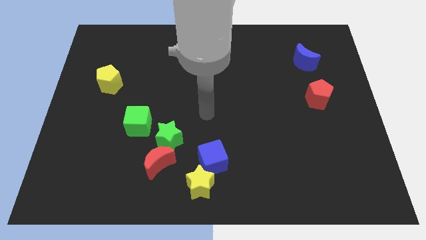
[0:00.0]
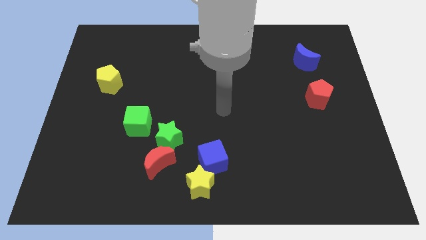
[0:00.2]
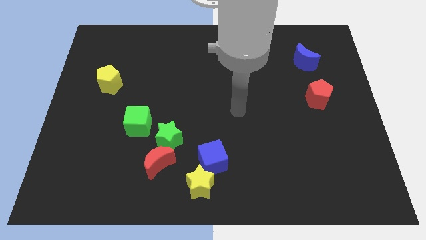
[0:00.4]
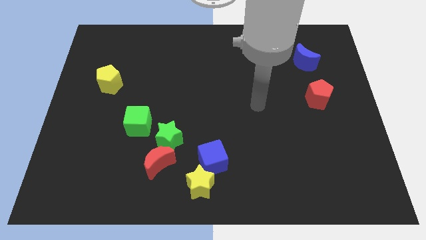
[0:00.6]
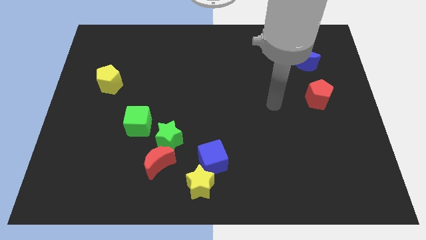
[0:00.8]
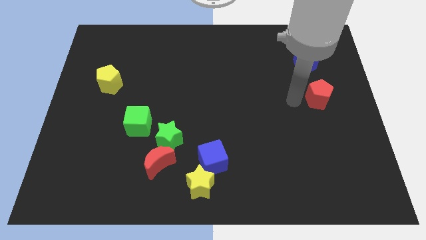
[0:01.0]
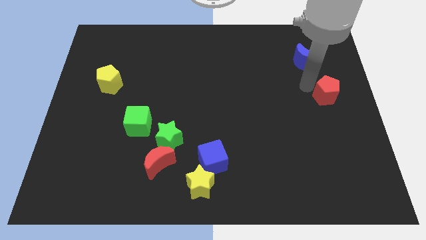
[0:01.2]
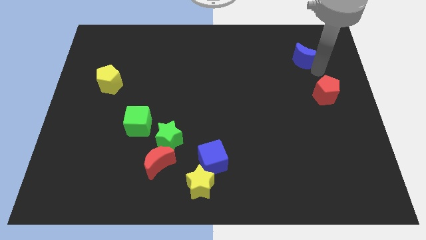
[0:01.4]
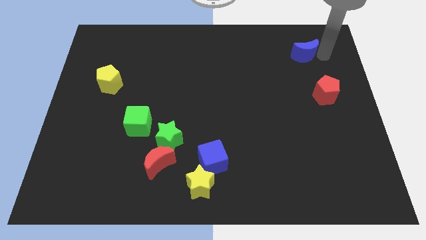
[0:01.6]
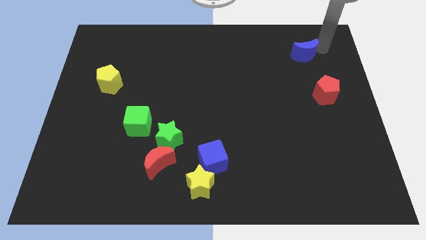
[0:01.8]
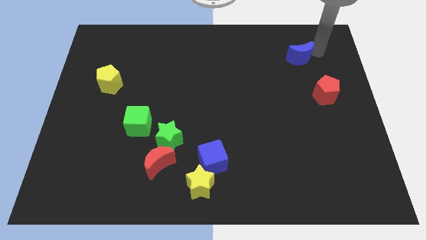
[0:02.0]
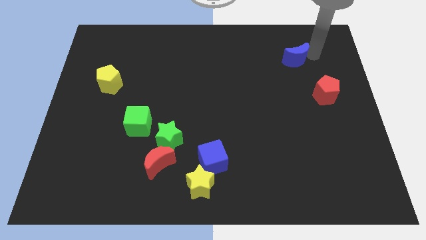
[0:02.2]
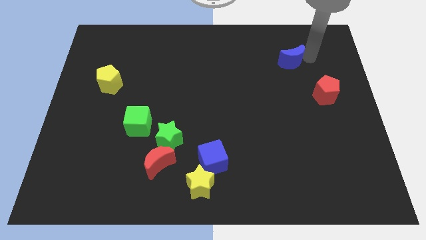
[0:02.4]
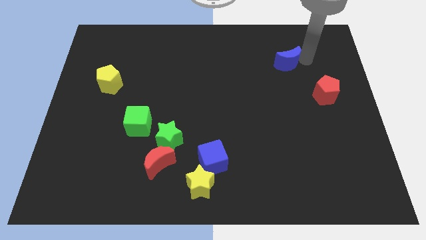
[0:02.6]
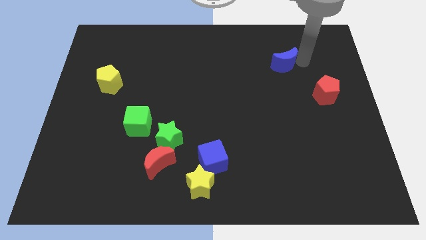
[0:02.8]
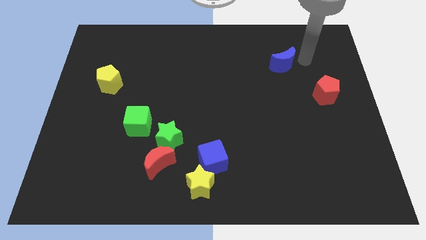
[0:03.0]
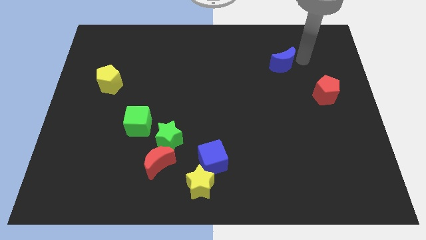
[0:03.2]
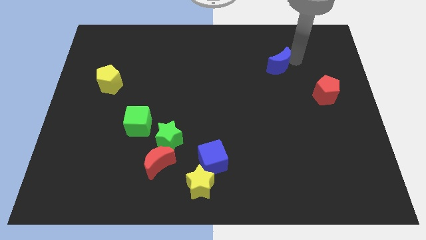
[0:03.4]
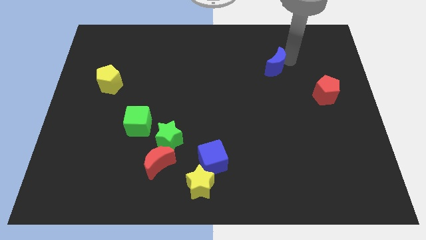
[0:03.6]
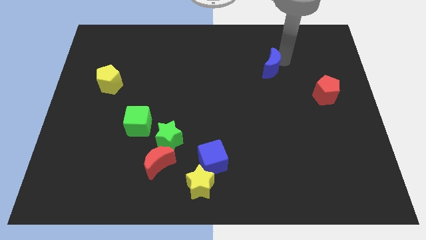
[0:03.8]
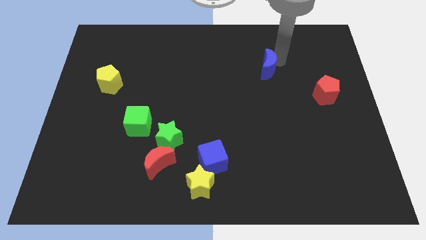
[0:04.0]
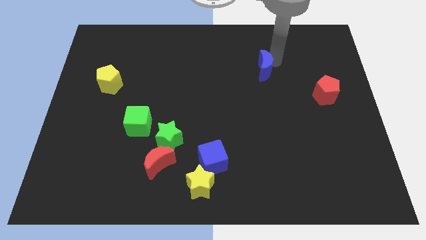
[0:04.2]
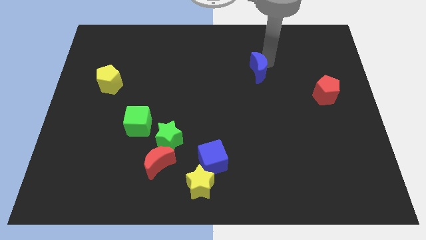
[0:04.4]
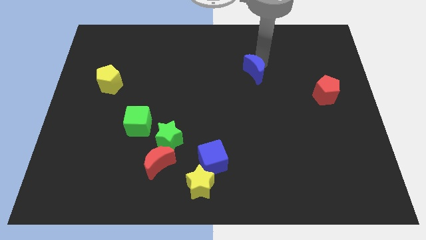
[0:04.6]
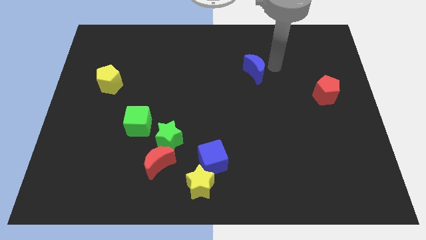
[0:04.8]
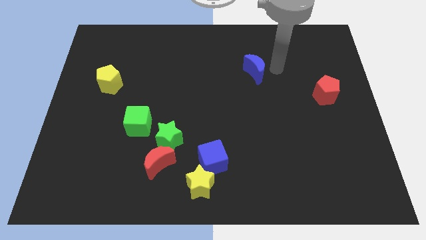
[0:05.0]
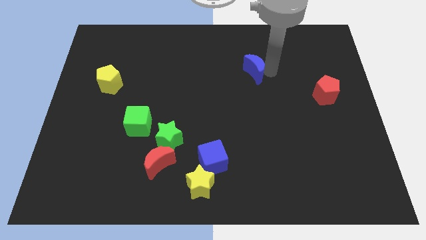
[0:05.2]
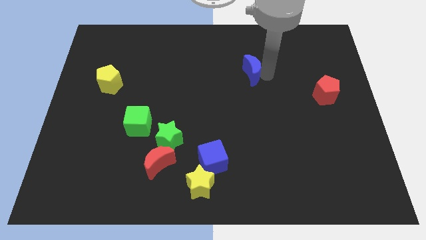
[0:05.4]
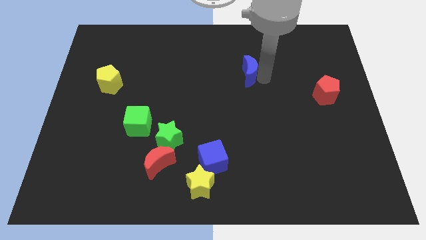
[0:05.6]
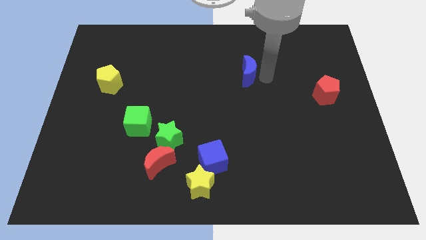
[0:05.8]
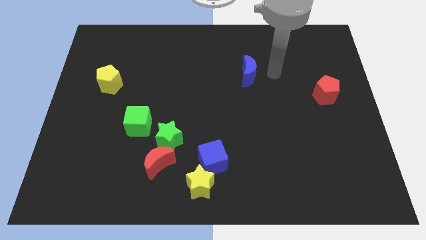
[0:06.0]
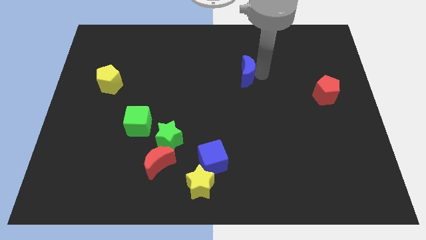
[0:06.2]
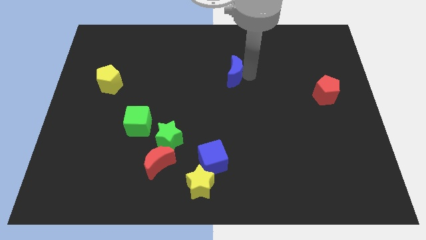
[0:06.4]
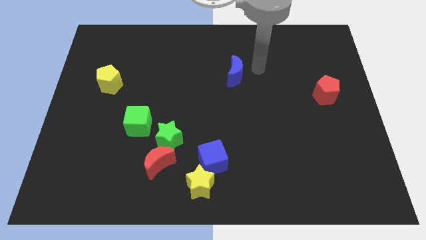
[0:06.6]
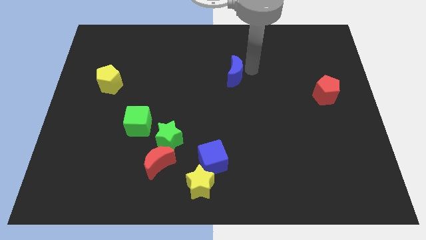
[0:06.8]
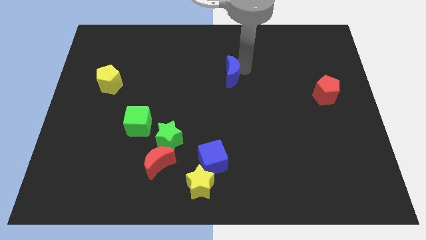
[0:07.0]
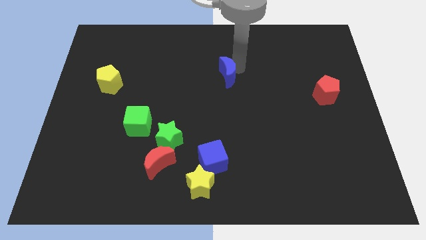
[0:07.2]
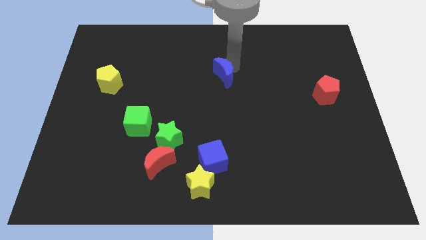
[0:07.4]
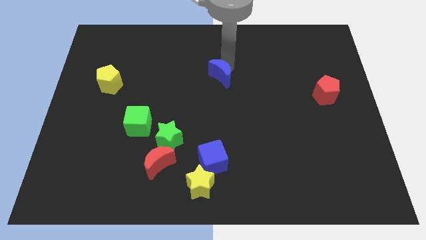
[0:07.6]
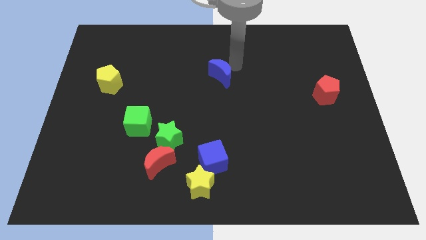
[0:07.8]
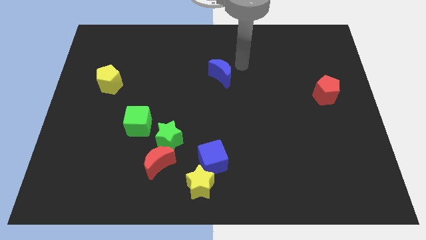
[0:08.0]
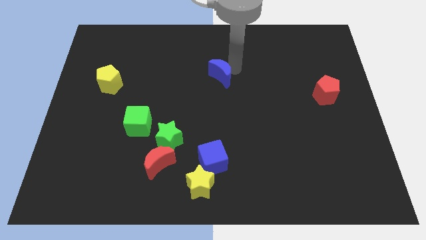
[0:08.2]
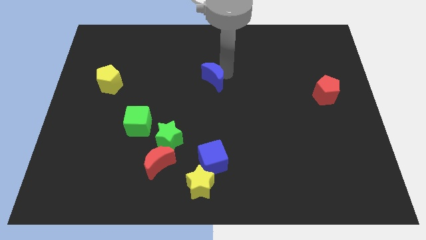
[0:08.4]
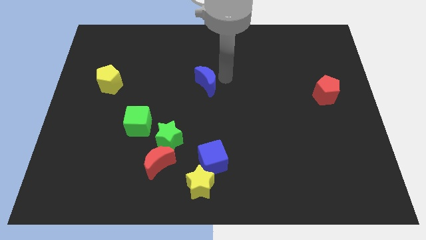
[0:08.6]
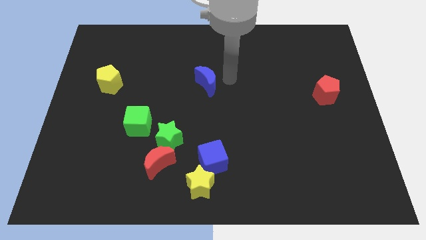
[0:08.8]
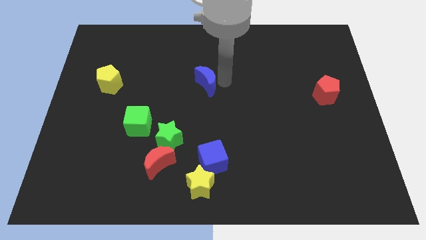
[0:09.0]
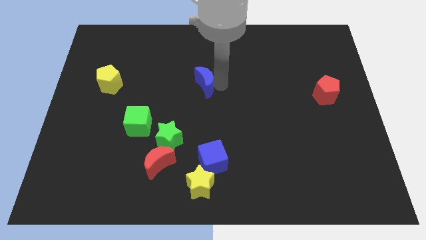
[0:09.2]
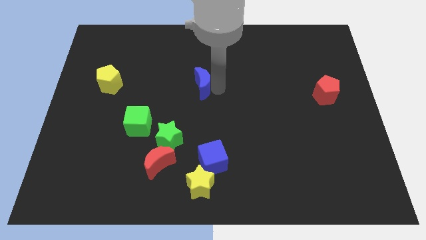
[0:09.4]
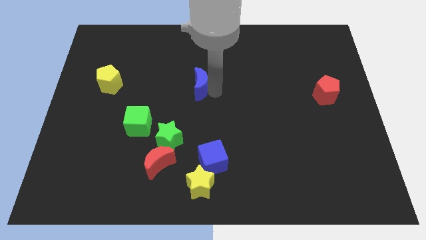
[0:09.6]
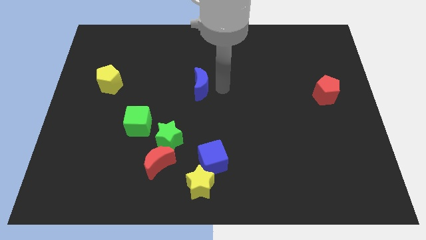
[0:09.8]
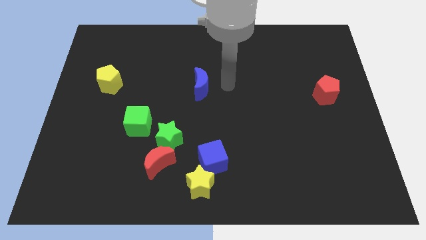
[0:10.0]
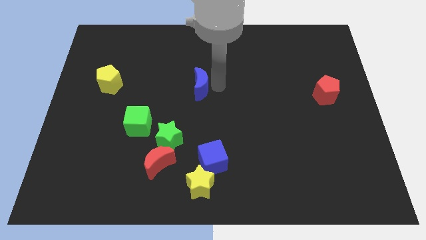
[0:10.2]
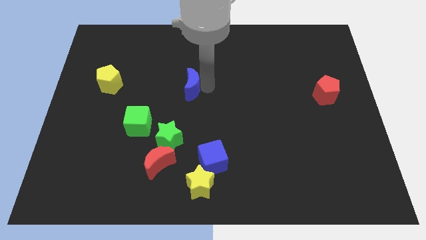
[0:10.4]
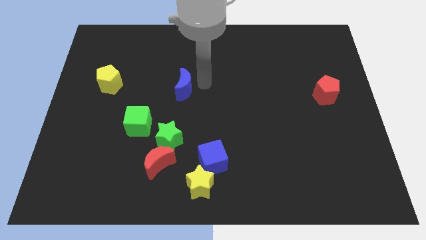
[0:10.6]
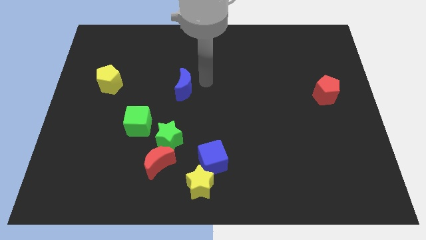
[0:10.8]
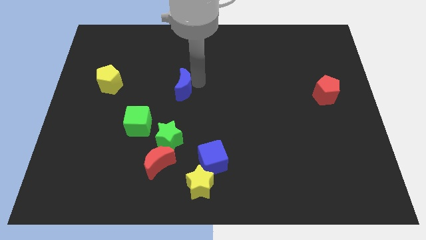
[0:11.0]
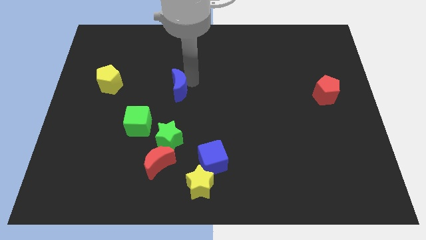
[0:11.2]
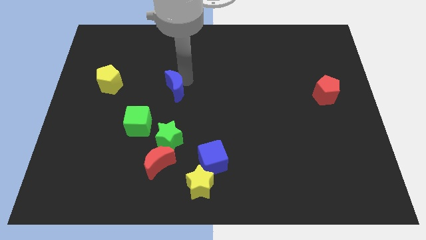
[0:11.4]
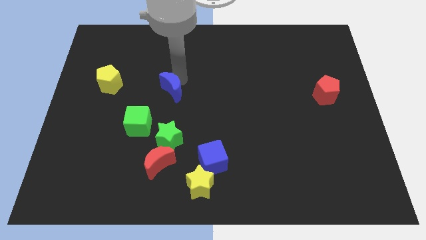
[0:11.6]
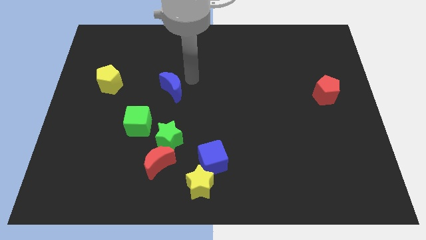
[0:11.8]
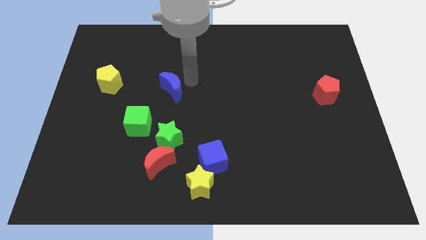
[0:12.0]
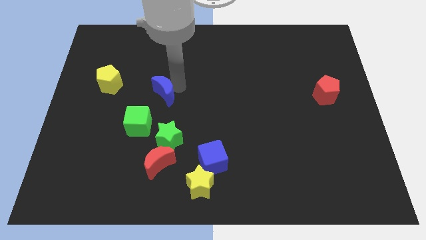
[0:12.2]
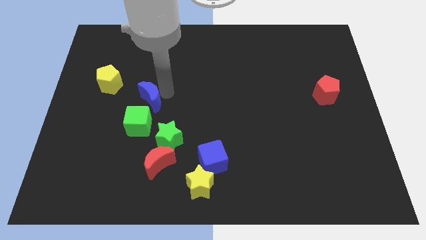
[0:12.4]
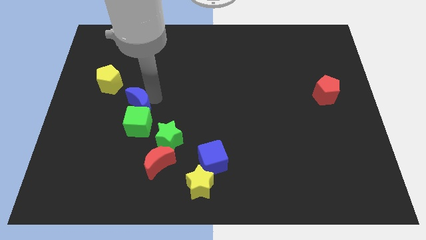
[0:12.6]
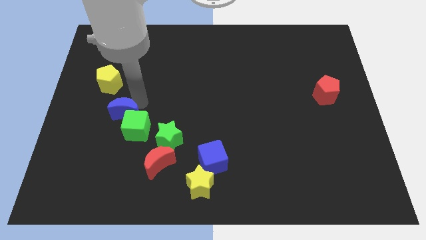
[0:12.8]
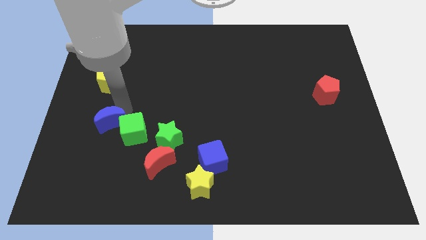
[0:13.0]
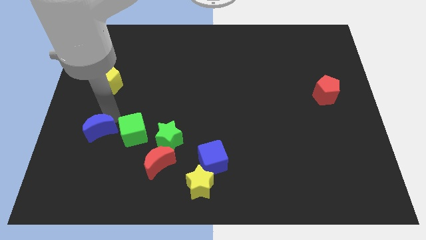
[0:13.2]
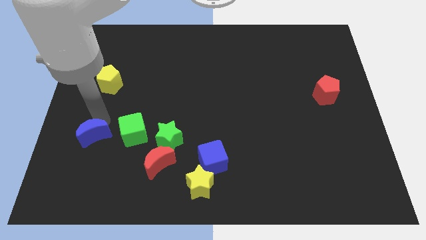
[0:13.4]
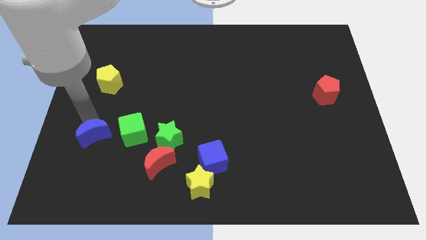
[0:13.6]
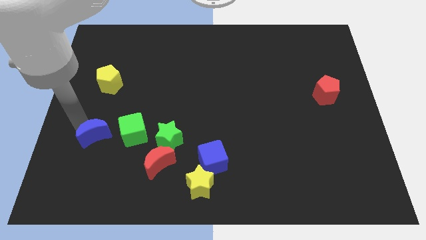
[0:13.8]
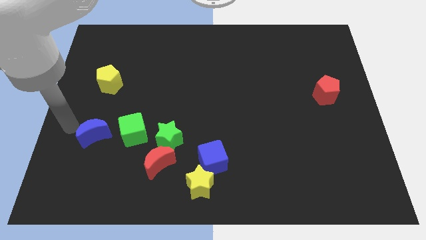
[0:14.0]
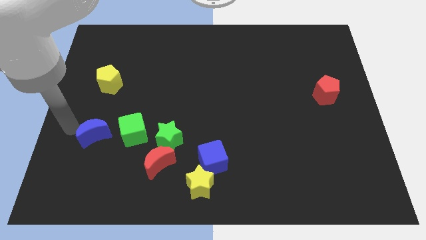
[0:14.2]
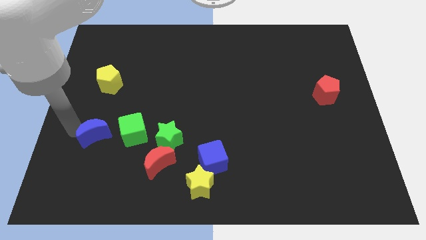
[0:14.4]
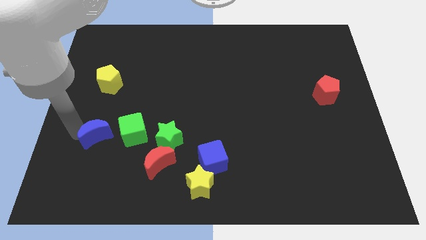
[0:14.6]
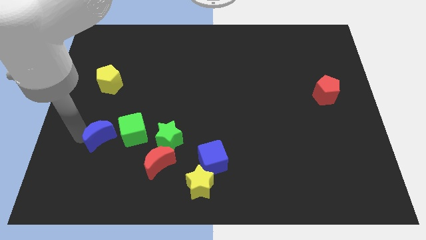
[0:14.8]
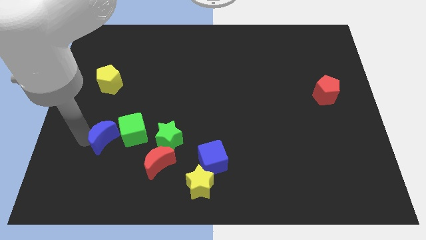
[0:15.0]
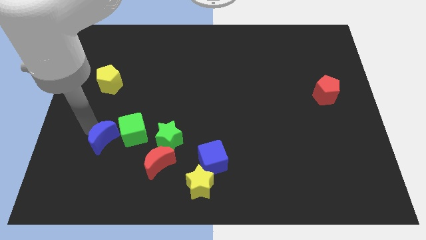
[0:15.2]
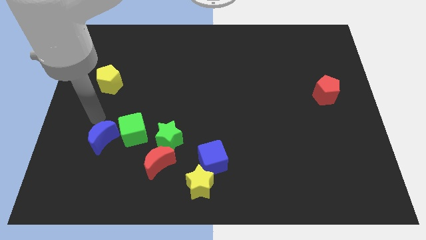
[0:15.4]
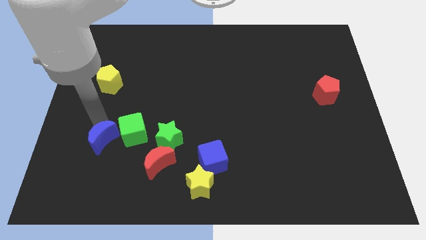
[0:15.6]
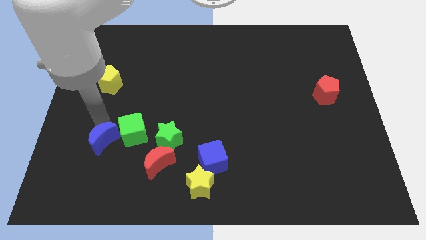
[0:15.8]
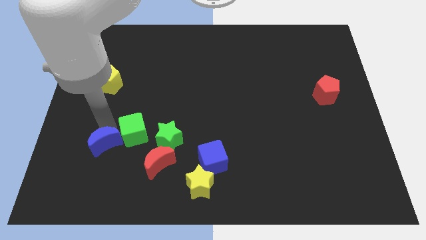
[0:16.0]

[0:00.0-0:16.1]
slide the blue moon left of the red moon
